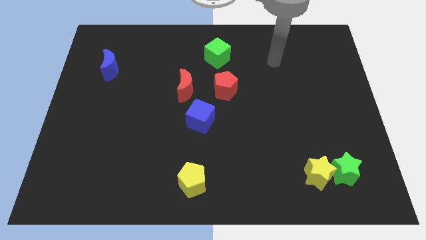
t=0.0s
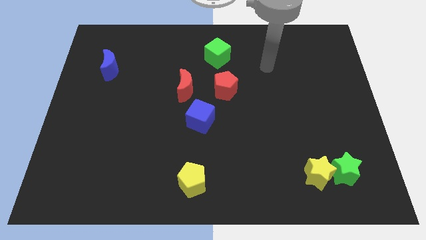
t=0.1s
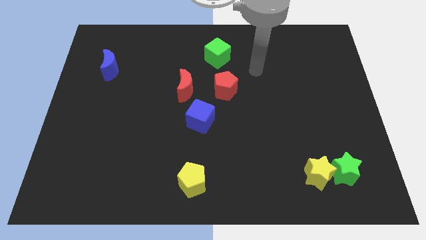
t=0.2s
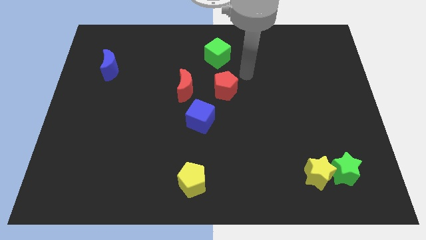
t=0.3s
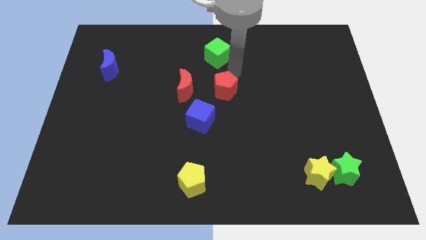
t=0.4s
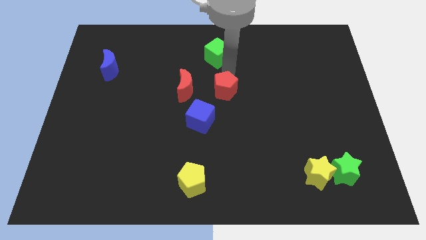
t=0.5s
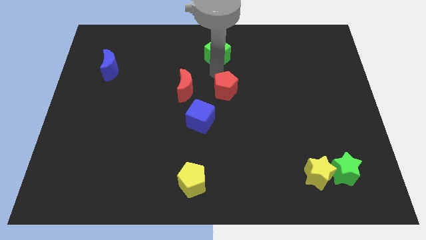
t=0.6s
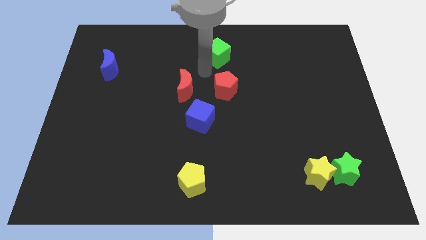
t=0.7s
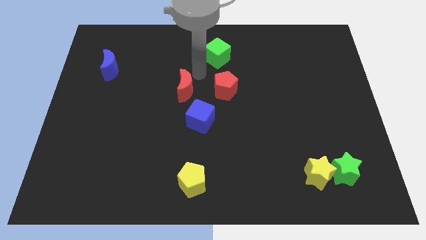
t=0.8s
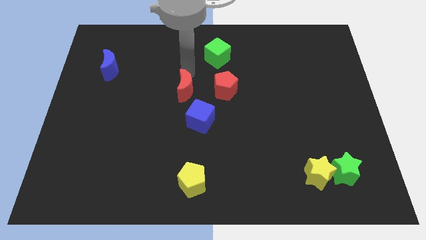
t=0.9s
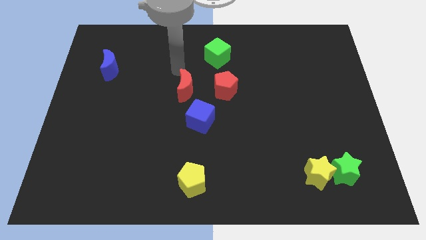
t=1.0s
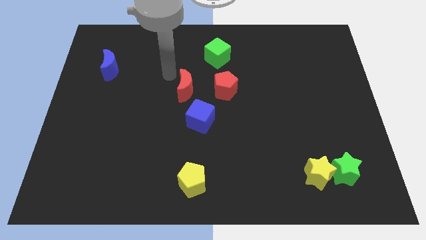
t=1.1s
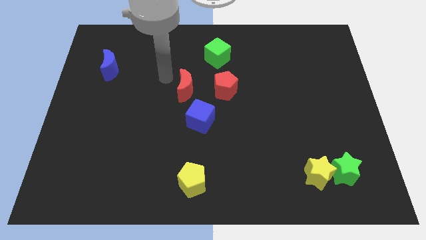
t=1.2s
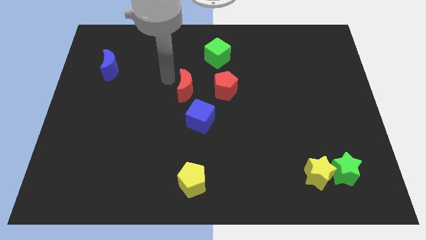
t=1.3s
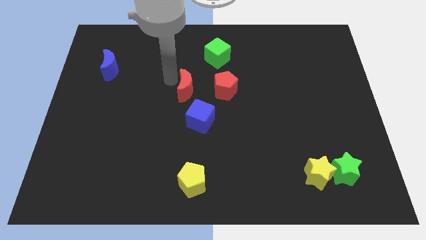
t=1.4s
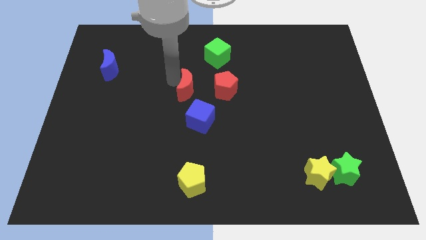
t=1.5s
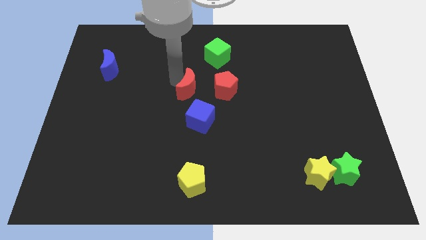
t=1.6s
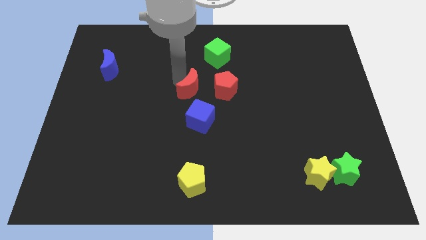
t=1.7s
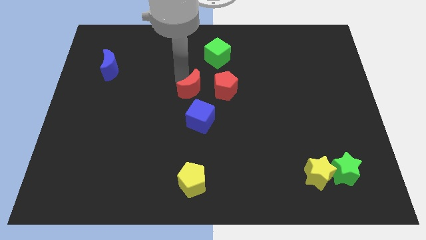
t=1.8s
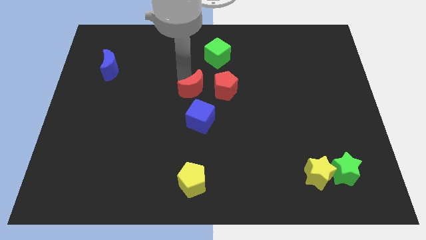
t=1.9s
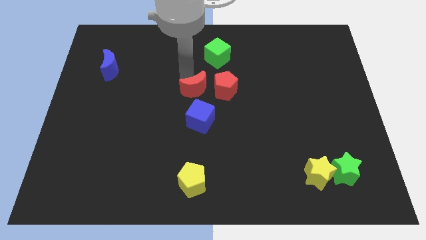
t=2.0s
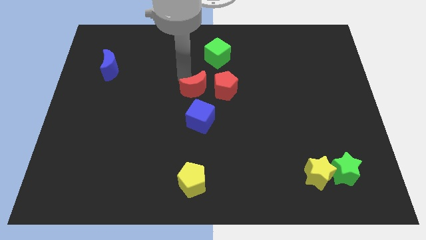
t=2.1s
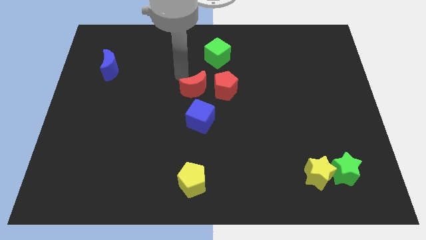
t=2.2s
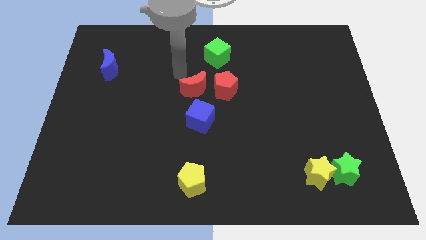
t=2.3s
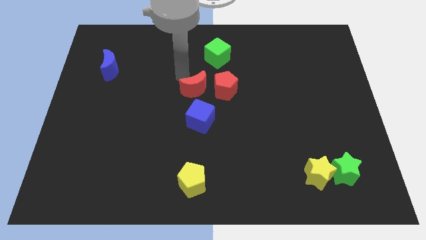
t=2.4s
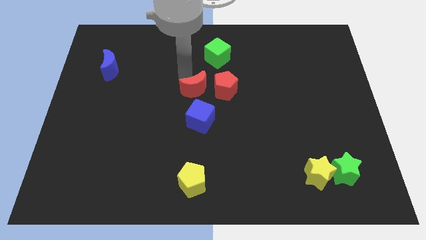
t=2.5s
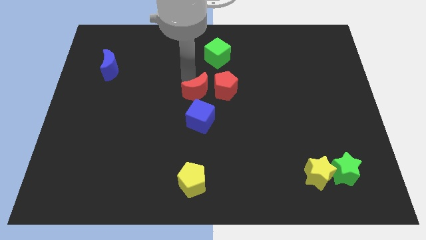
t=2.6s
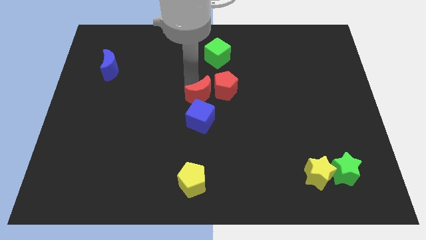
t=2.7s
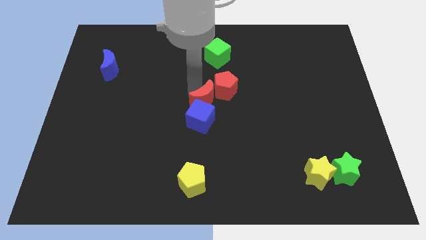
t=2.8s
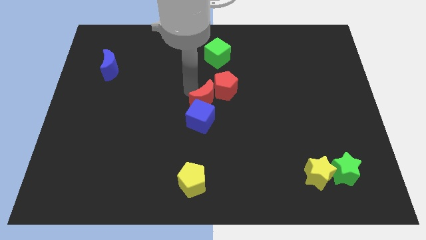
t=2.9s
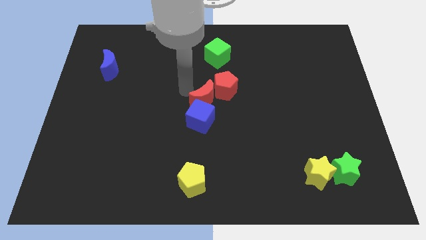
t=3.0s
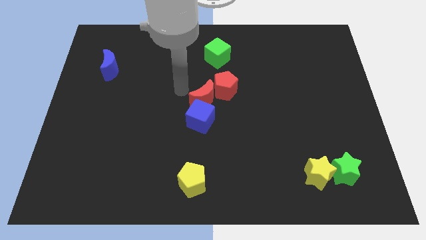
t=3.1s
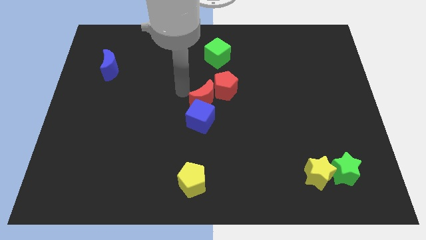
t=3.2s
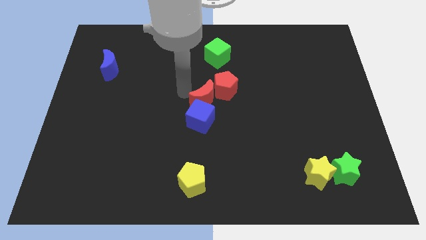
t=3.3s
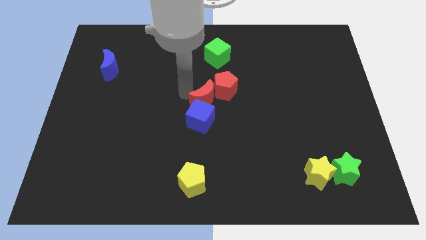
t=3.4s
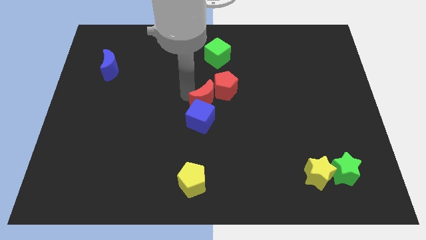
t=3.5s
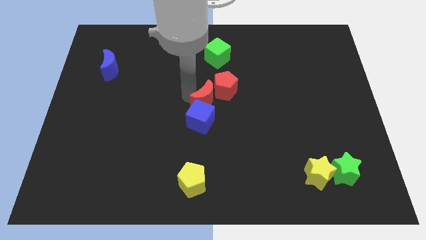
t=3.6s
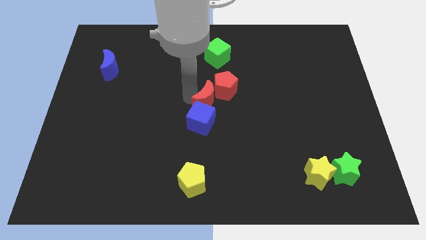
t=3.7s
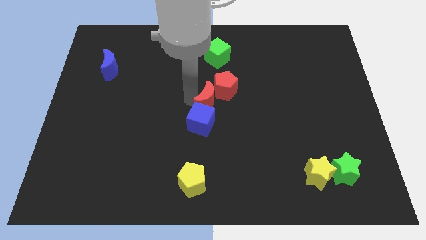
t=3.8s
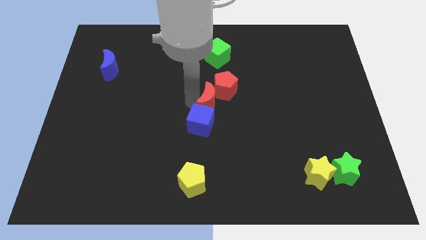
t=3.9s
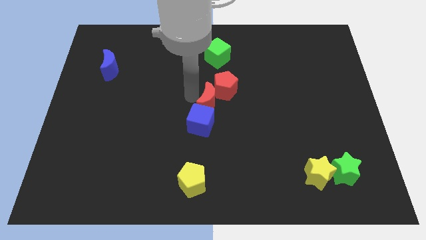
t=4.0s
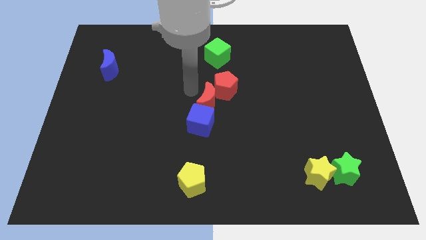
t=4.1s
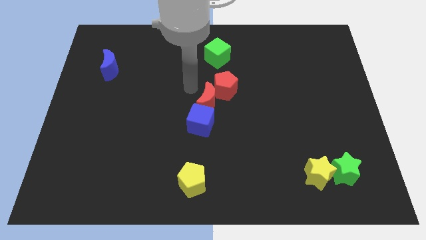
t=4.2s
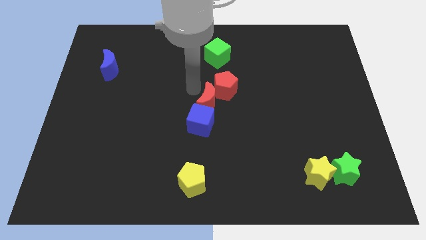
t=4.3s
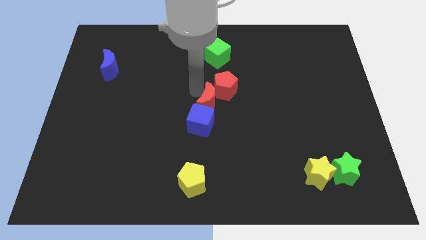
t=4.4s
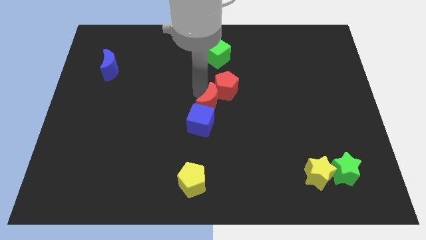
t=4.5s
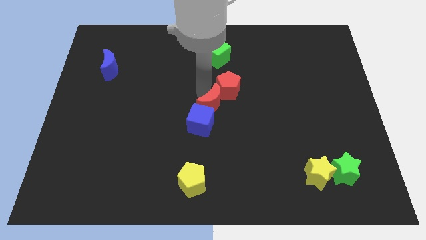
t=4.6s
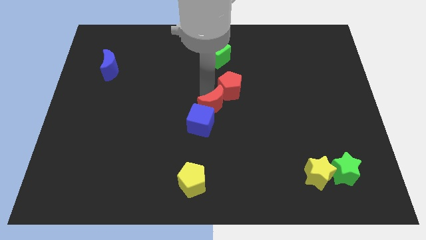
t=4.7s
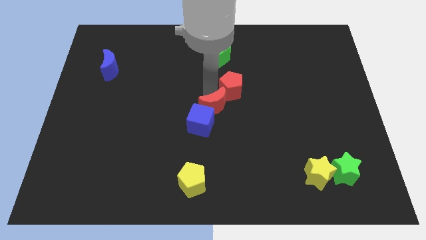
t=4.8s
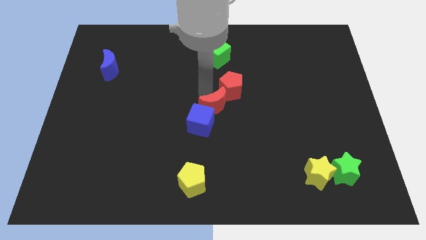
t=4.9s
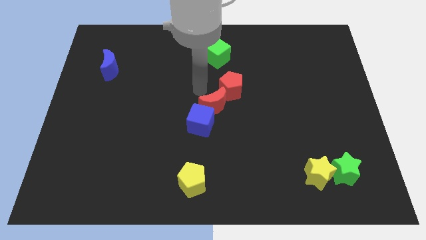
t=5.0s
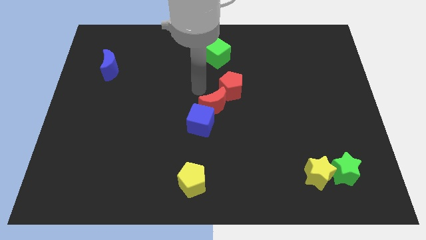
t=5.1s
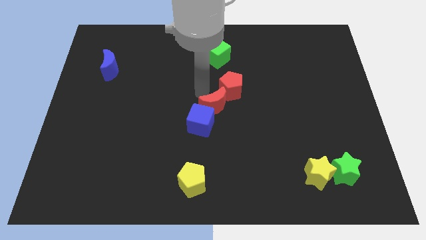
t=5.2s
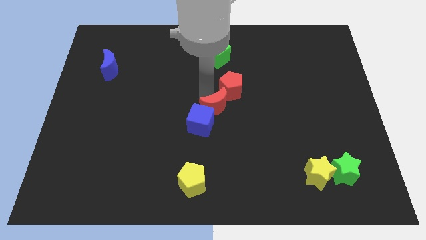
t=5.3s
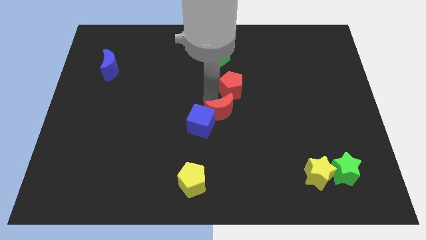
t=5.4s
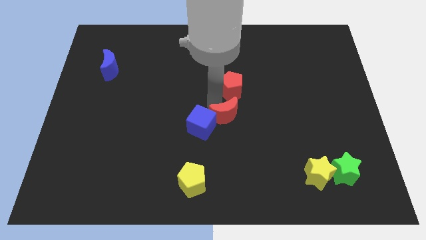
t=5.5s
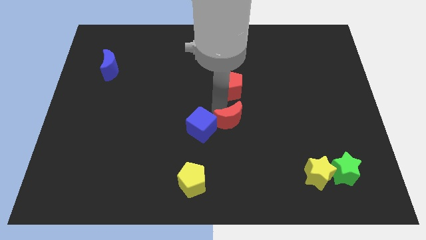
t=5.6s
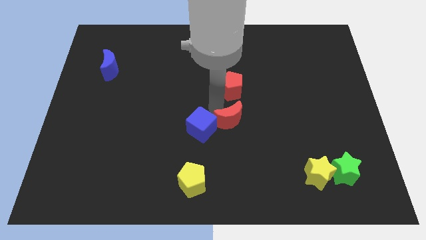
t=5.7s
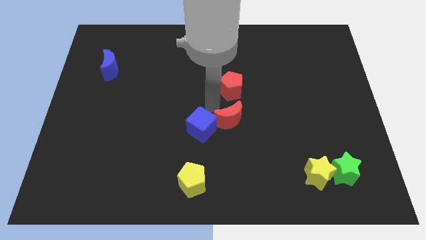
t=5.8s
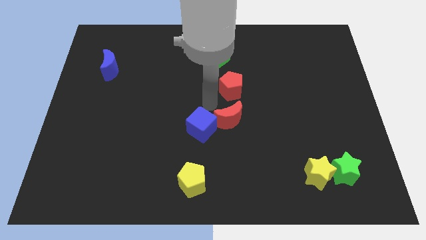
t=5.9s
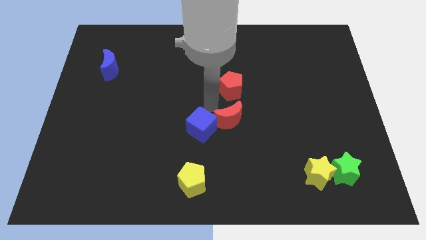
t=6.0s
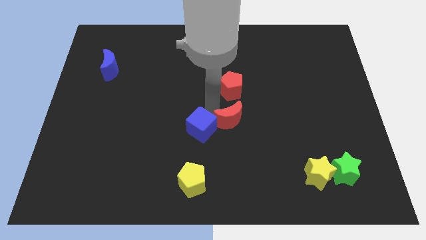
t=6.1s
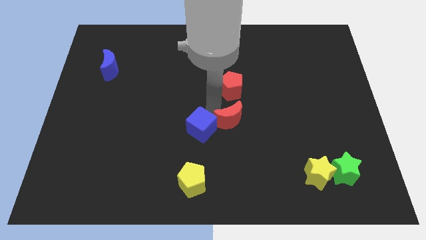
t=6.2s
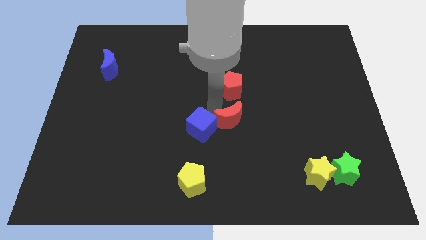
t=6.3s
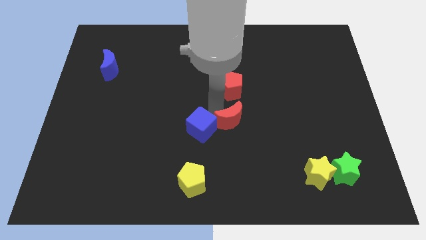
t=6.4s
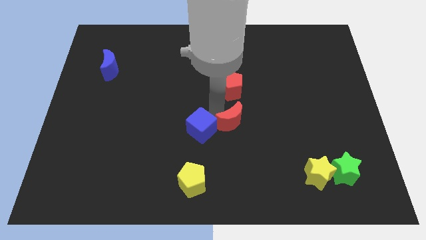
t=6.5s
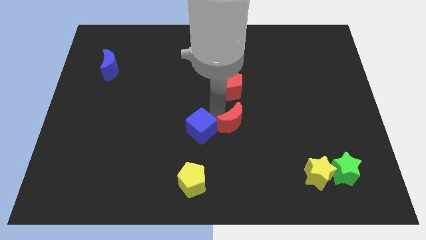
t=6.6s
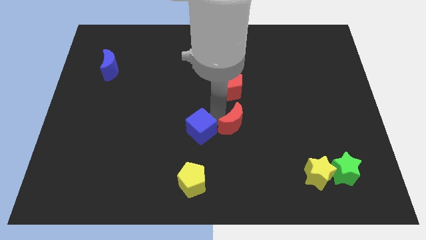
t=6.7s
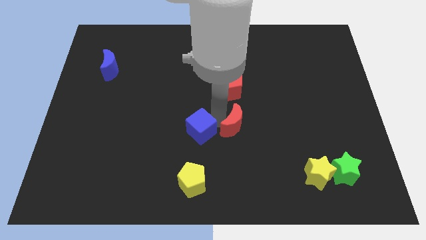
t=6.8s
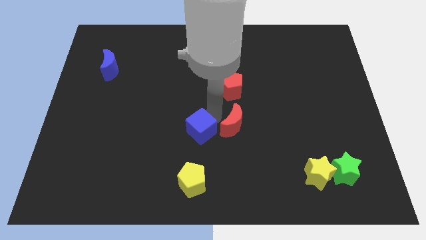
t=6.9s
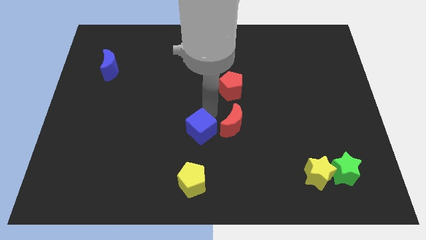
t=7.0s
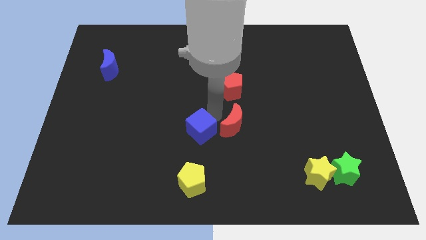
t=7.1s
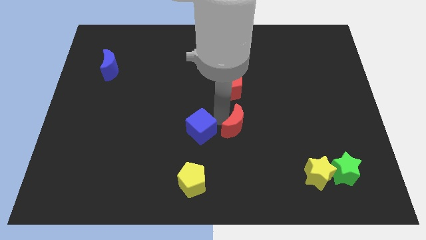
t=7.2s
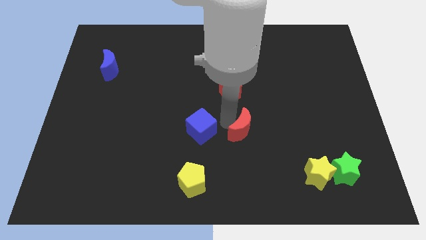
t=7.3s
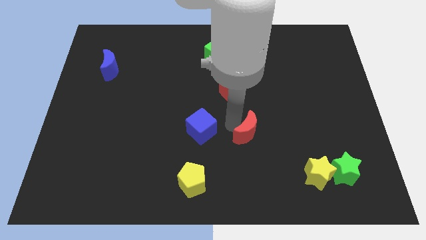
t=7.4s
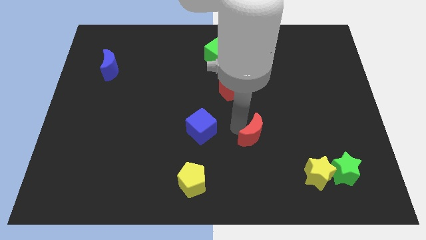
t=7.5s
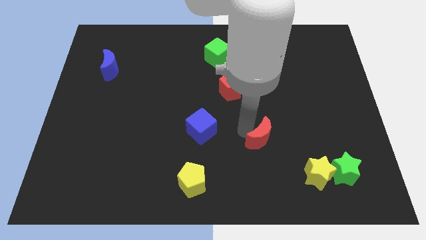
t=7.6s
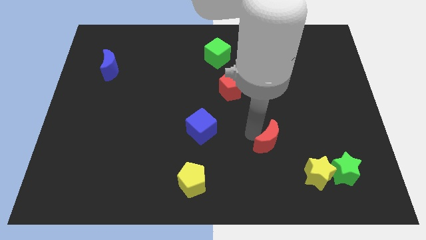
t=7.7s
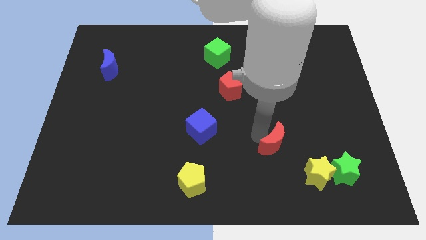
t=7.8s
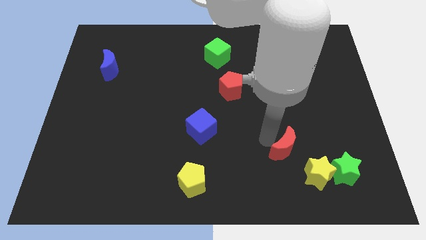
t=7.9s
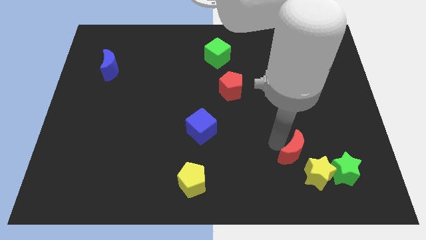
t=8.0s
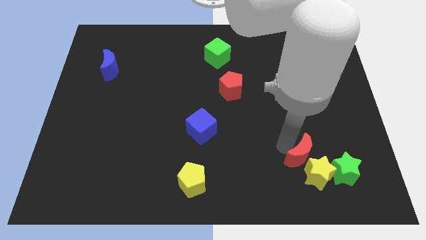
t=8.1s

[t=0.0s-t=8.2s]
slide the red moon next to the yellow star
